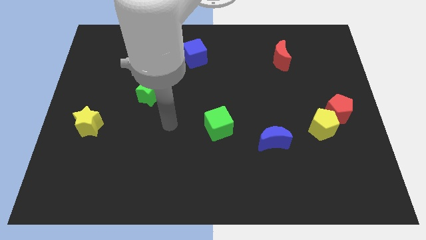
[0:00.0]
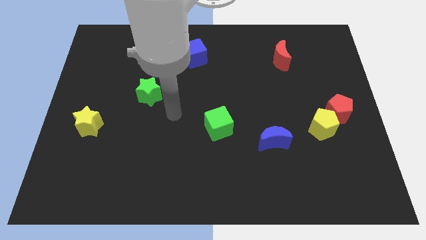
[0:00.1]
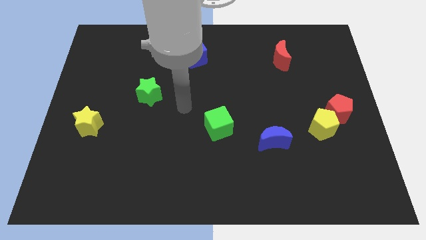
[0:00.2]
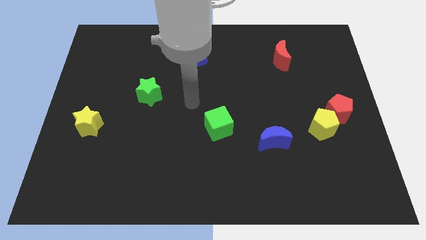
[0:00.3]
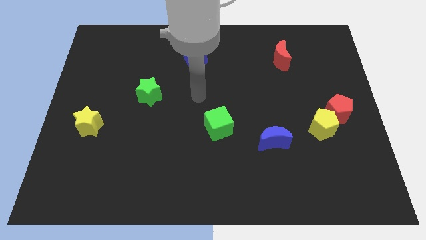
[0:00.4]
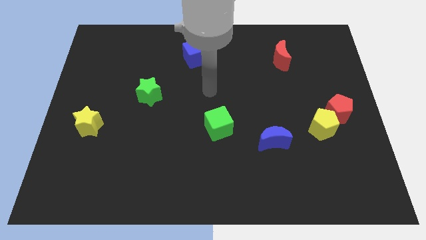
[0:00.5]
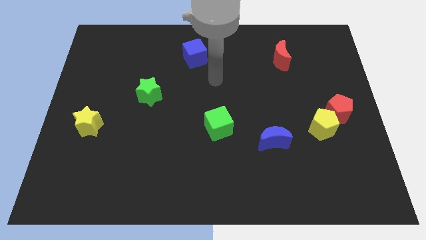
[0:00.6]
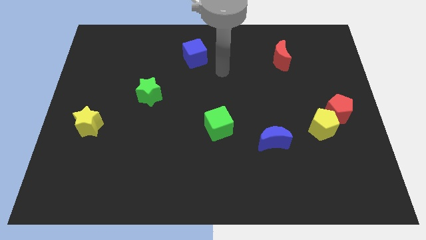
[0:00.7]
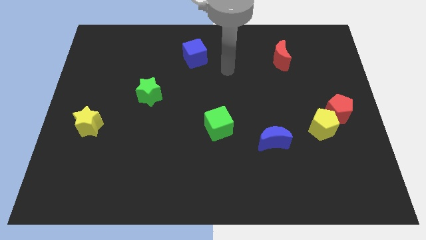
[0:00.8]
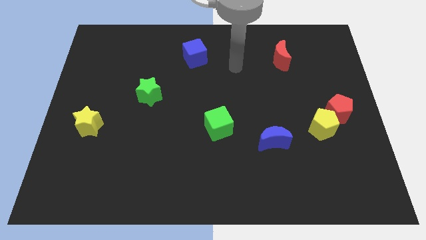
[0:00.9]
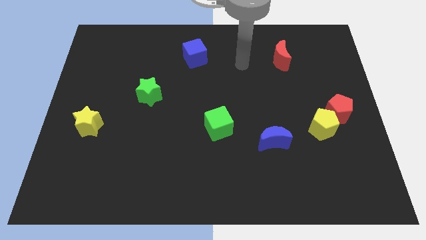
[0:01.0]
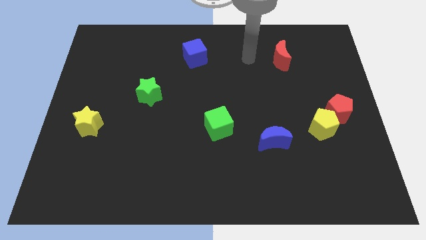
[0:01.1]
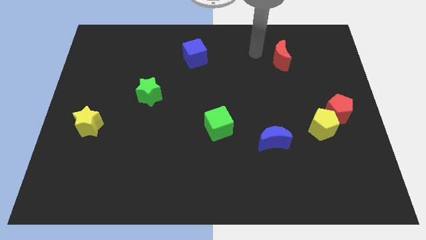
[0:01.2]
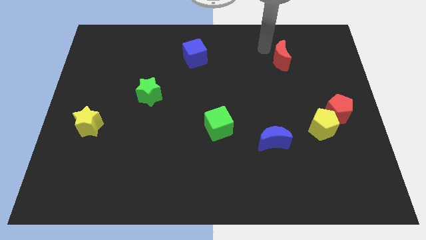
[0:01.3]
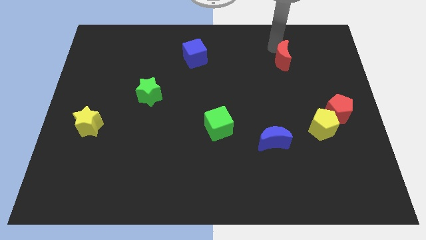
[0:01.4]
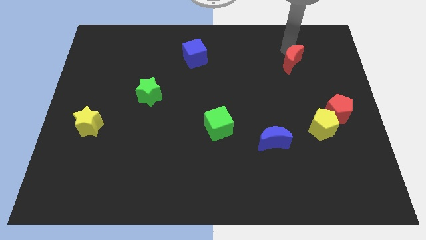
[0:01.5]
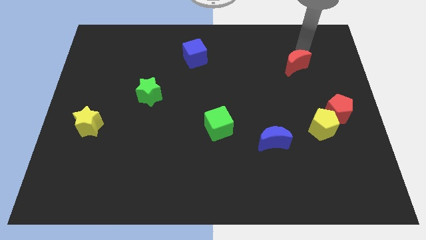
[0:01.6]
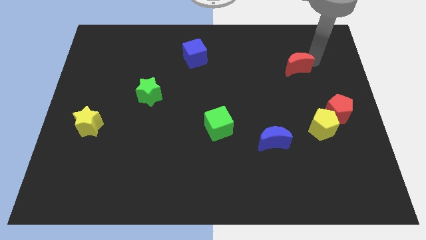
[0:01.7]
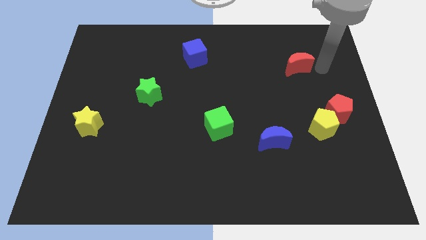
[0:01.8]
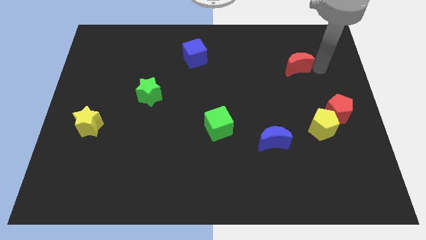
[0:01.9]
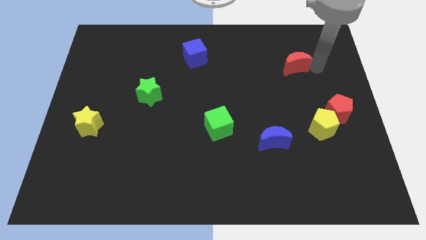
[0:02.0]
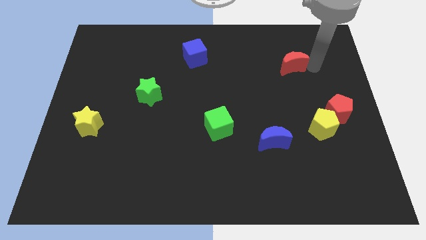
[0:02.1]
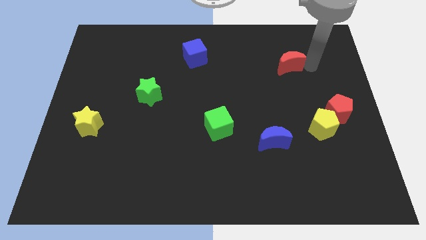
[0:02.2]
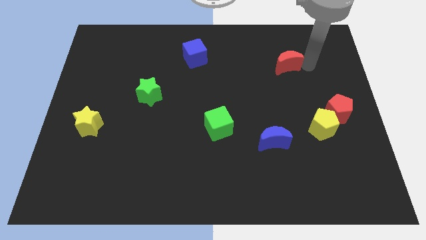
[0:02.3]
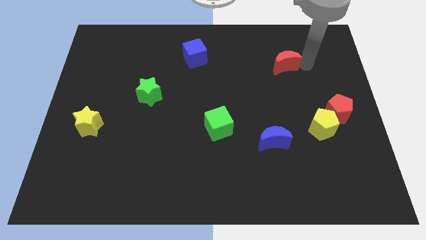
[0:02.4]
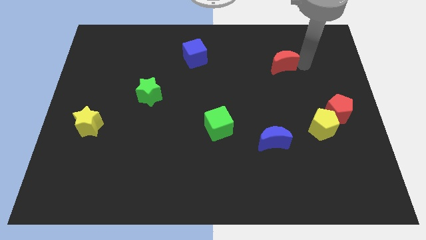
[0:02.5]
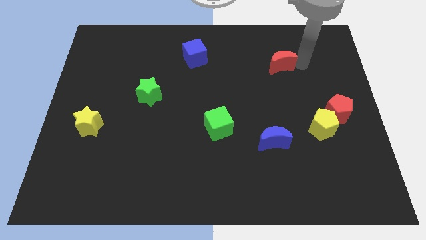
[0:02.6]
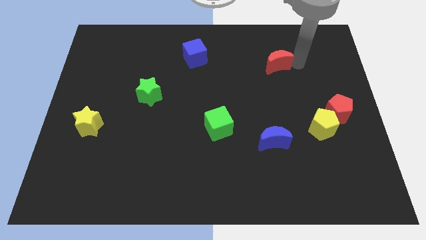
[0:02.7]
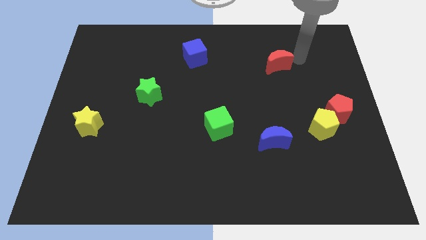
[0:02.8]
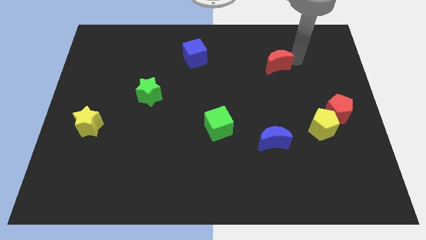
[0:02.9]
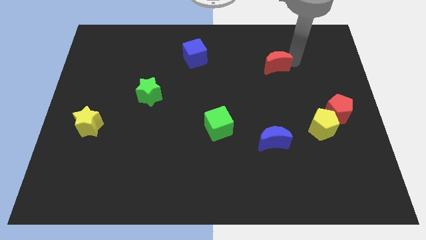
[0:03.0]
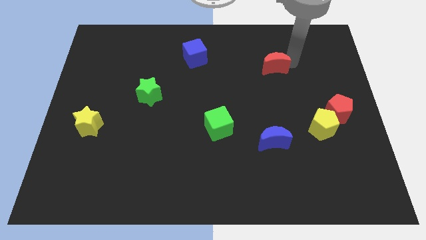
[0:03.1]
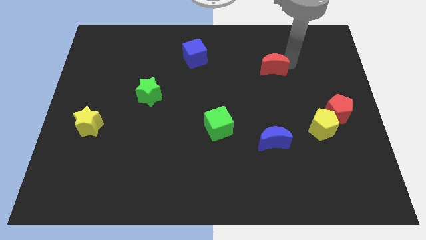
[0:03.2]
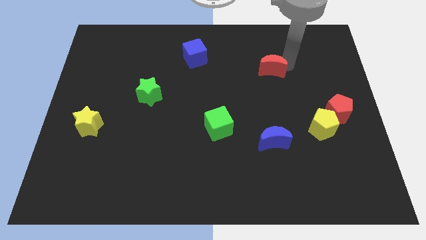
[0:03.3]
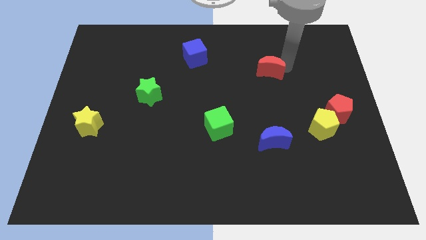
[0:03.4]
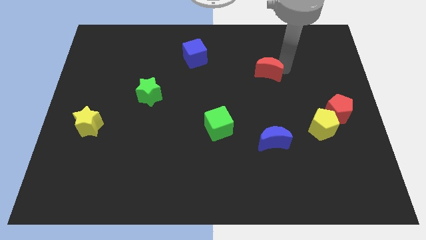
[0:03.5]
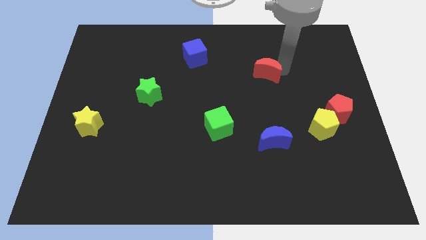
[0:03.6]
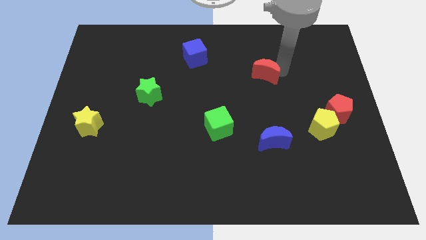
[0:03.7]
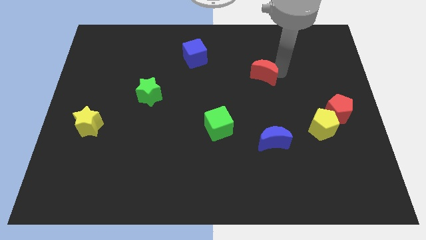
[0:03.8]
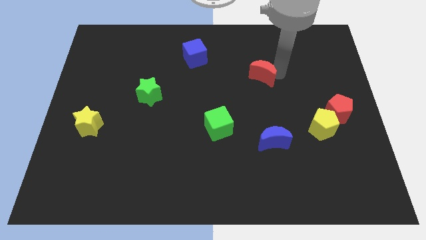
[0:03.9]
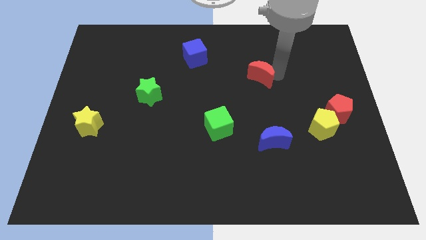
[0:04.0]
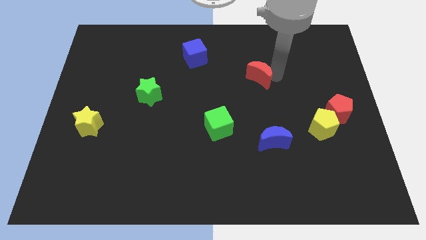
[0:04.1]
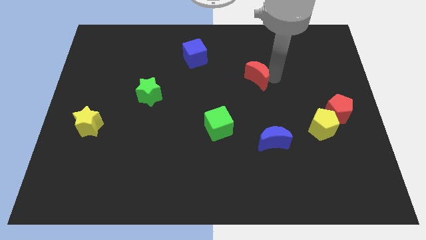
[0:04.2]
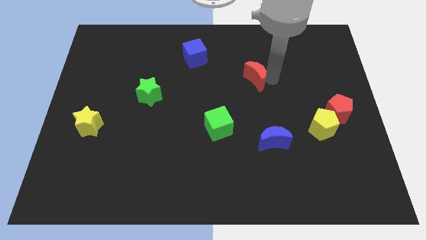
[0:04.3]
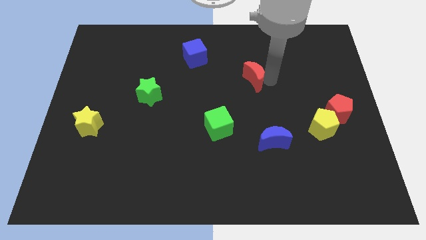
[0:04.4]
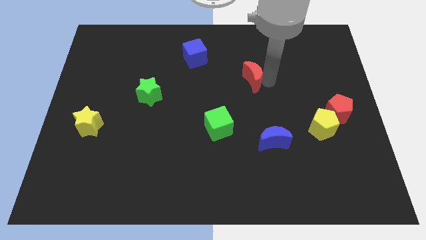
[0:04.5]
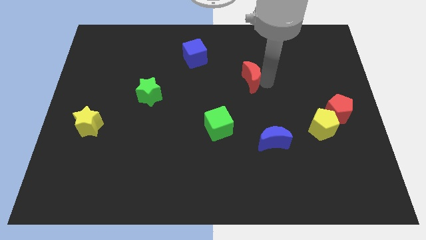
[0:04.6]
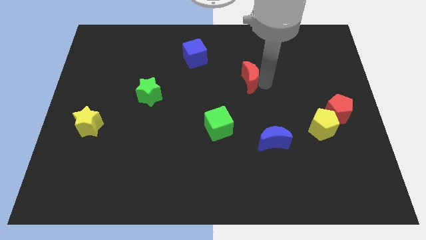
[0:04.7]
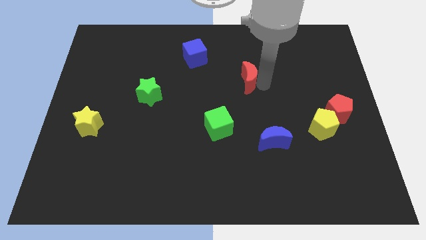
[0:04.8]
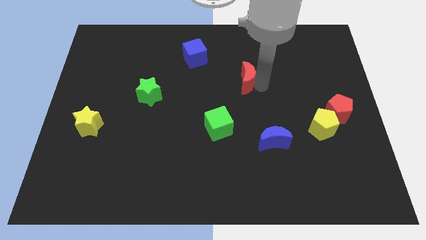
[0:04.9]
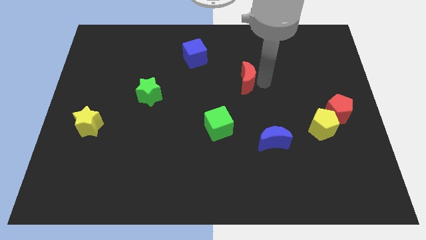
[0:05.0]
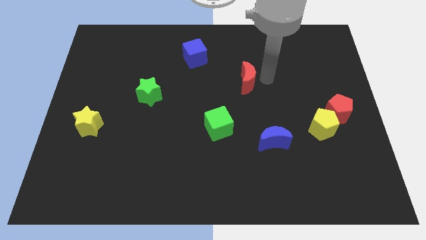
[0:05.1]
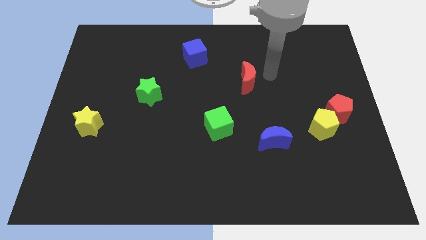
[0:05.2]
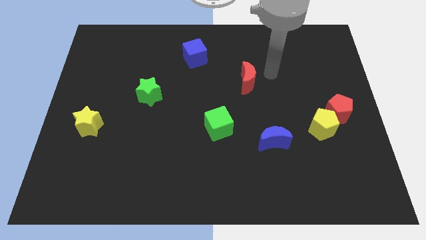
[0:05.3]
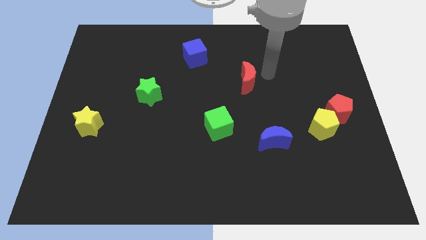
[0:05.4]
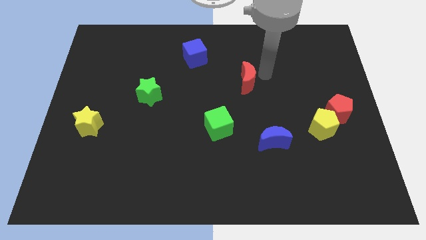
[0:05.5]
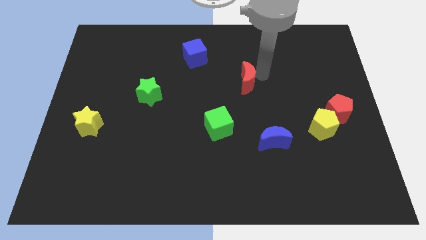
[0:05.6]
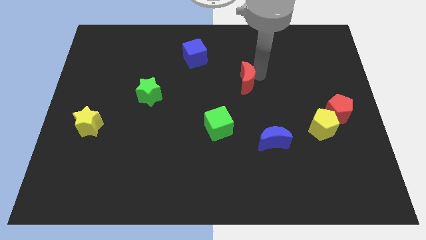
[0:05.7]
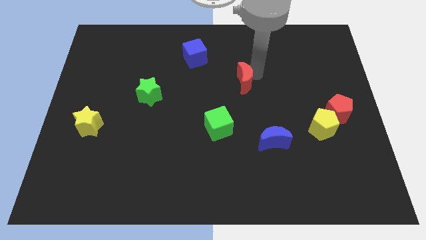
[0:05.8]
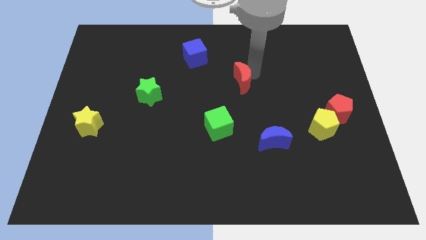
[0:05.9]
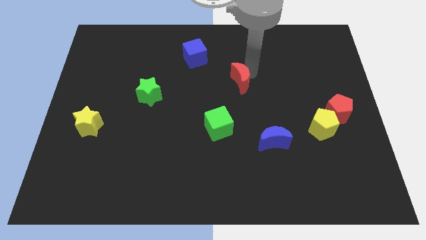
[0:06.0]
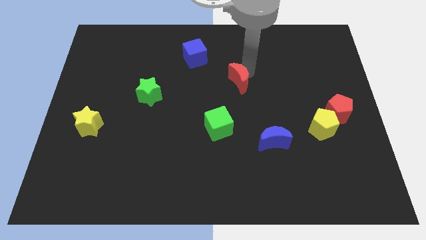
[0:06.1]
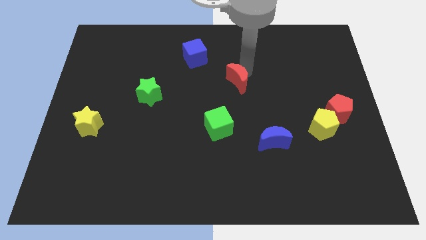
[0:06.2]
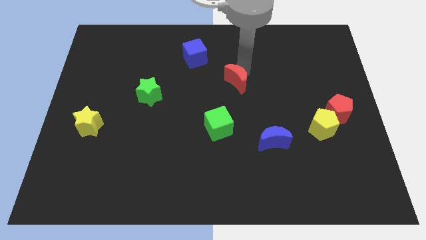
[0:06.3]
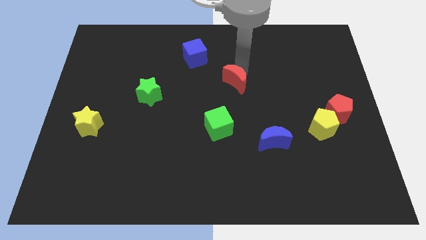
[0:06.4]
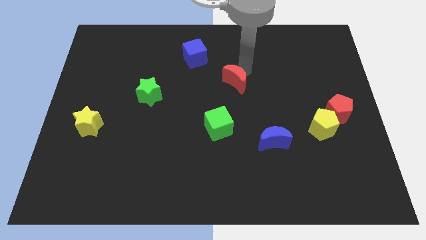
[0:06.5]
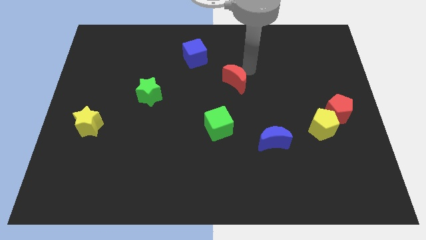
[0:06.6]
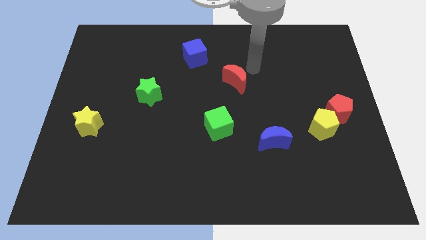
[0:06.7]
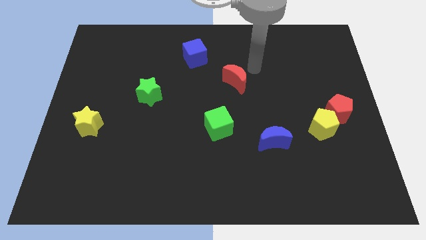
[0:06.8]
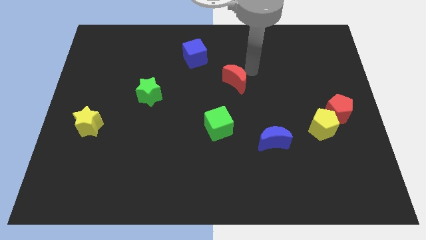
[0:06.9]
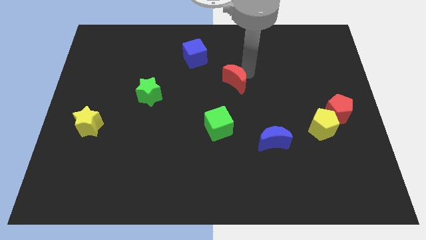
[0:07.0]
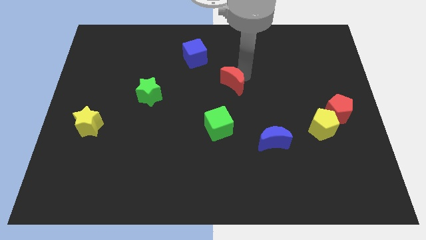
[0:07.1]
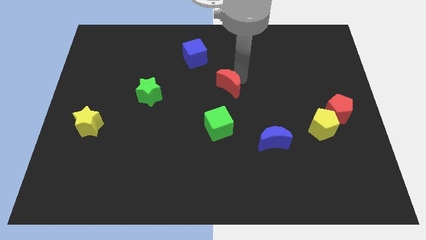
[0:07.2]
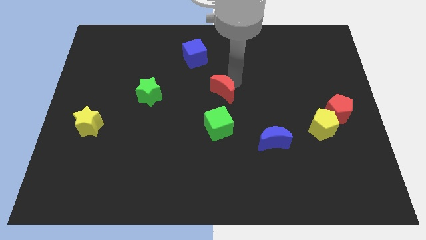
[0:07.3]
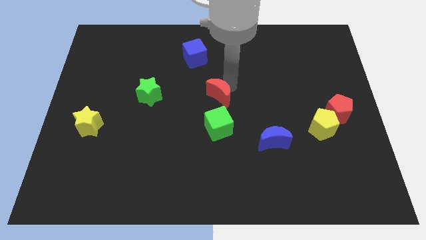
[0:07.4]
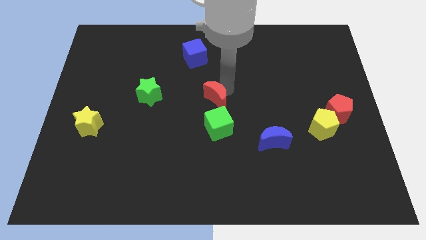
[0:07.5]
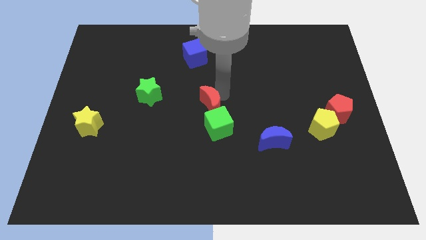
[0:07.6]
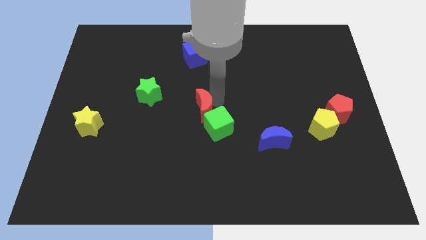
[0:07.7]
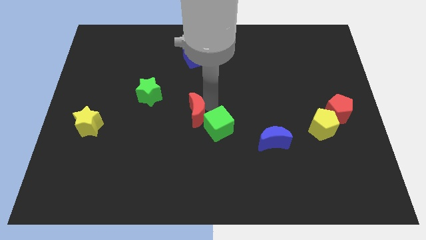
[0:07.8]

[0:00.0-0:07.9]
push the red moon to the left side of the green cube
